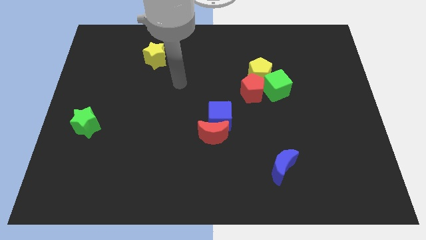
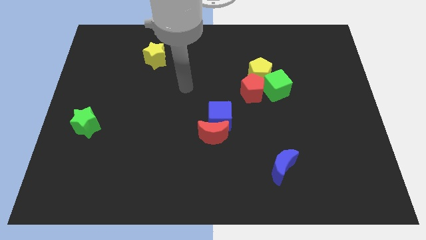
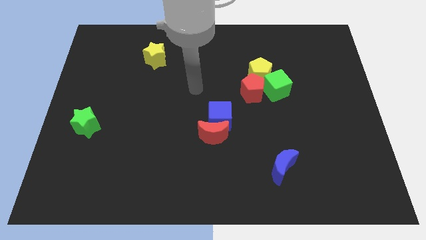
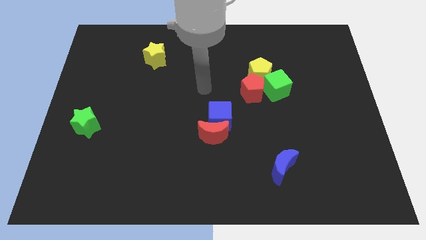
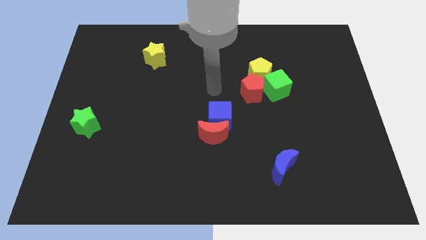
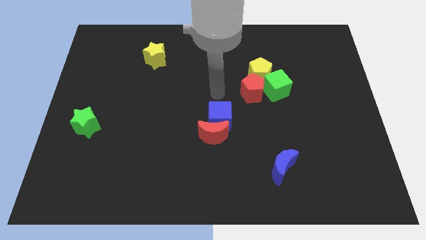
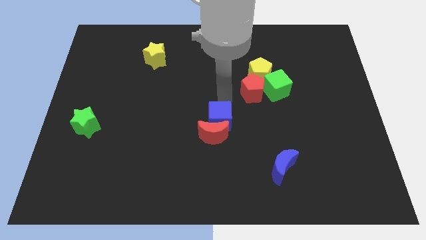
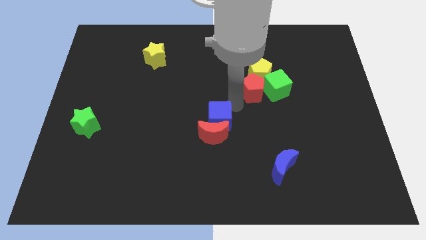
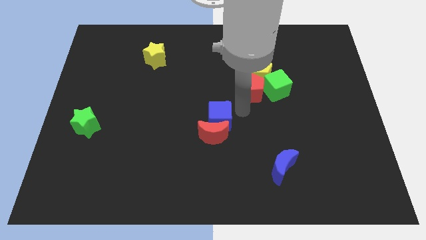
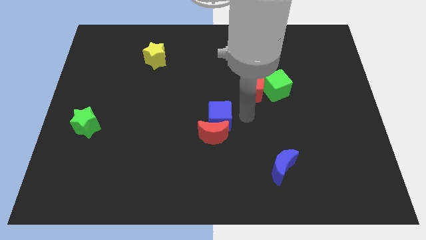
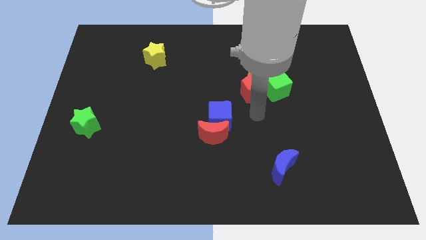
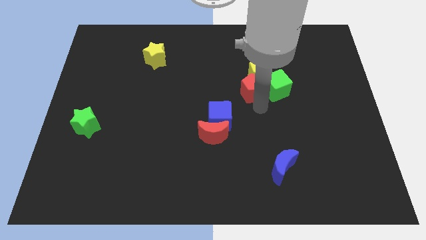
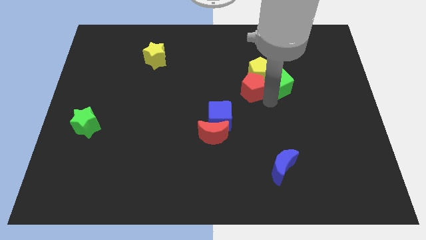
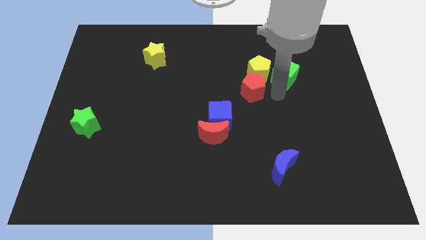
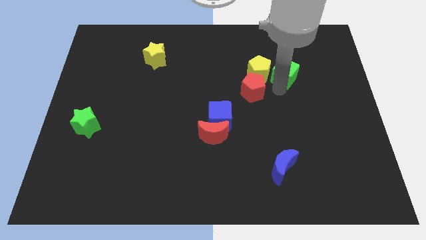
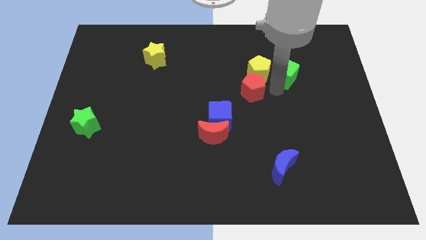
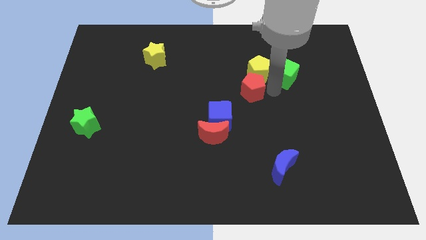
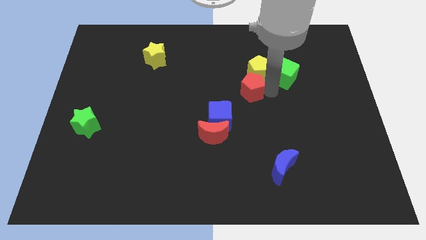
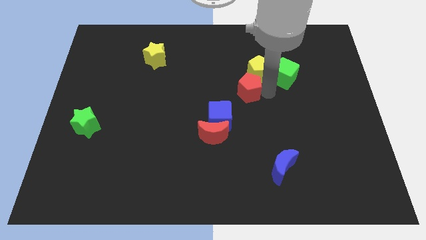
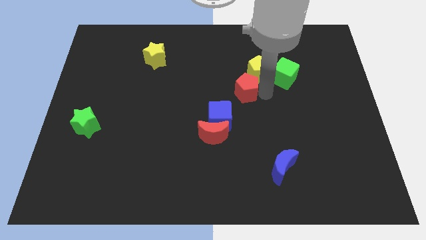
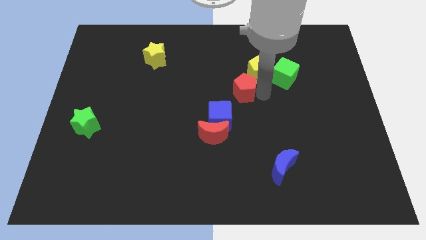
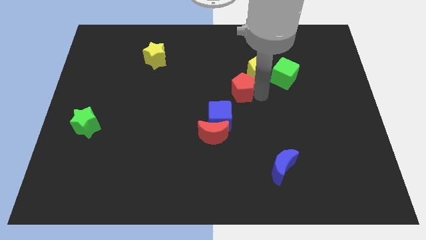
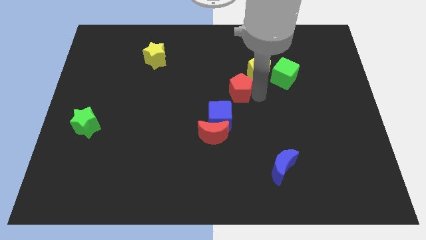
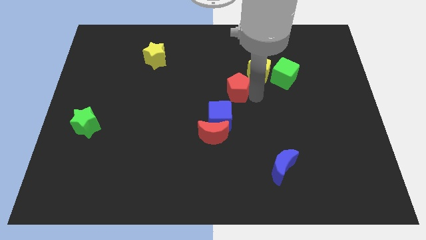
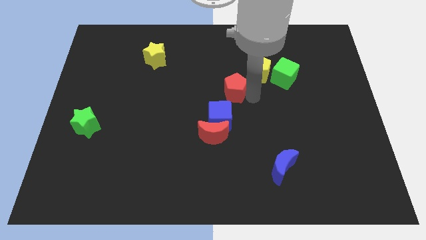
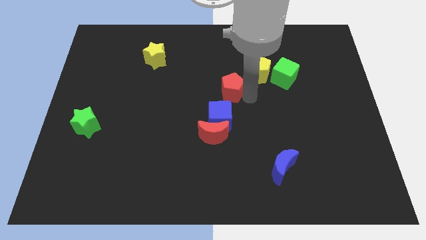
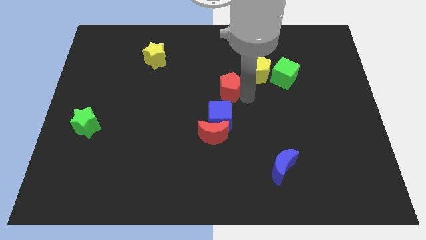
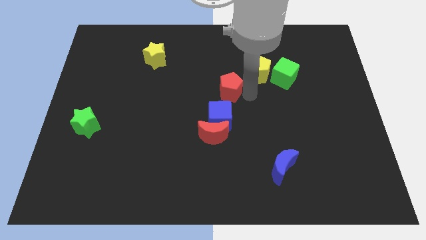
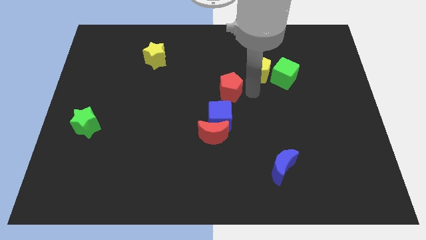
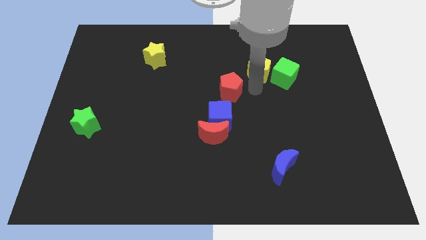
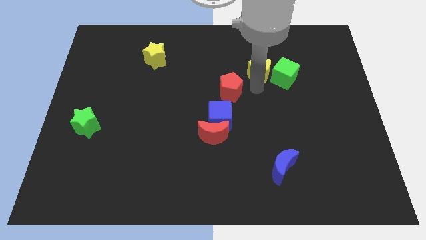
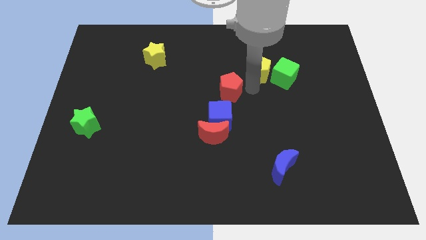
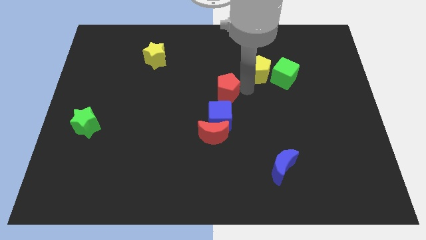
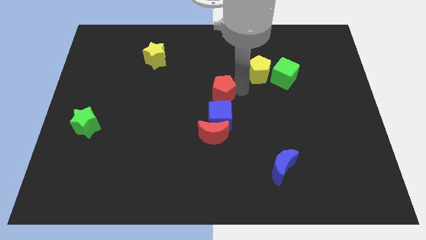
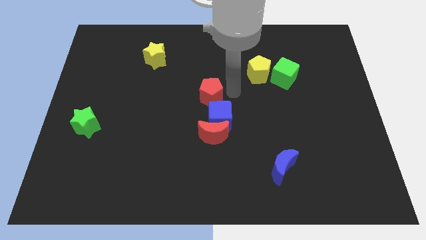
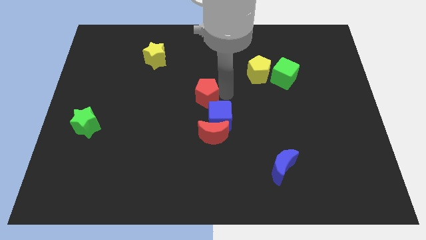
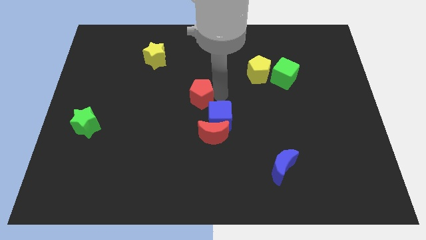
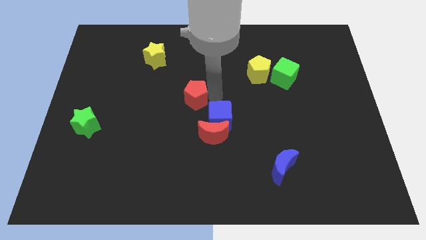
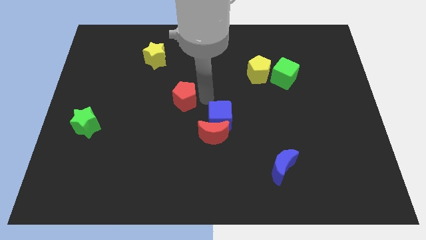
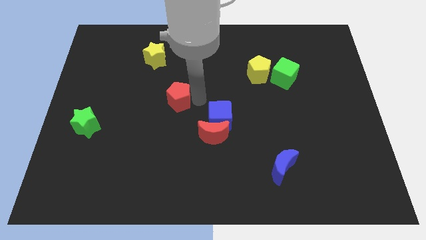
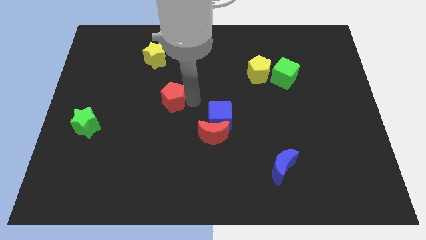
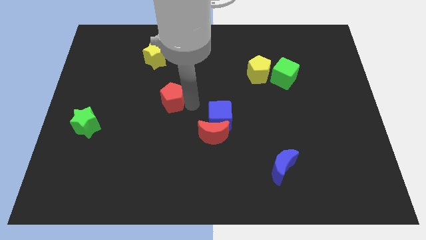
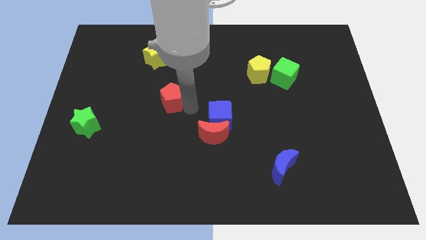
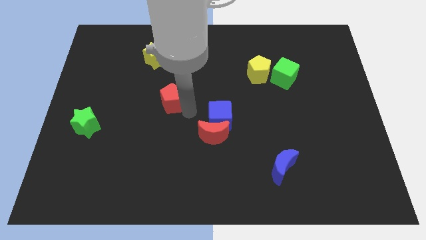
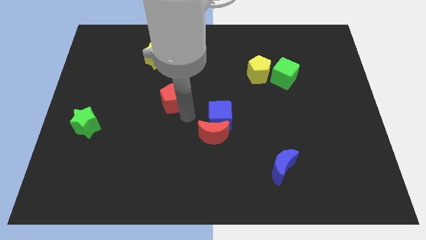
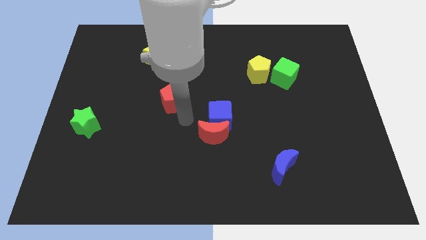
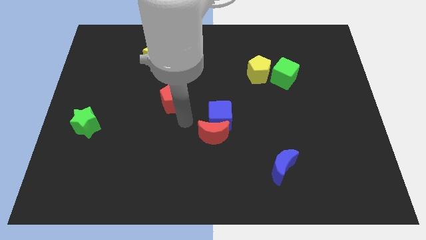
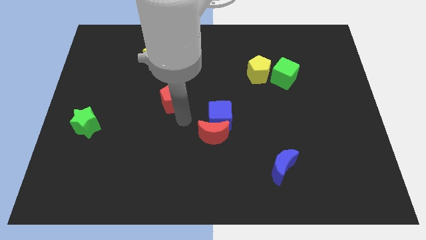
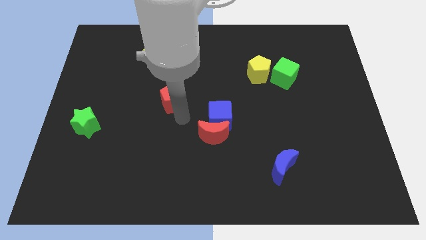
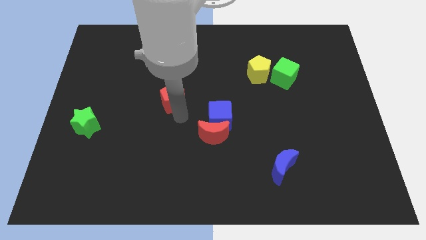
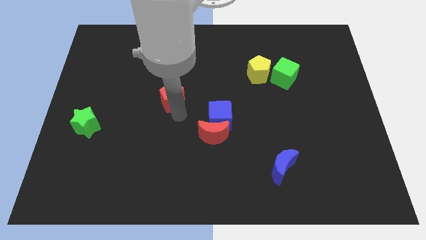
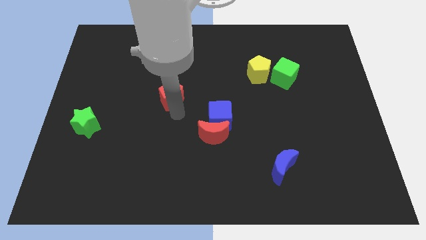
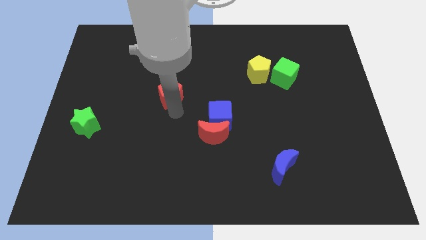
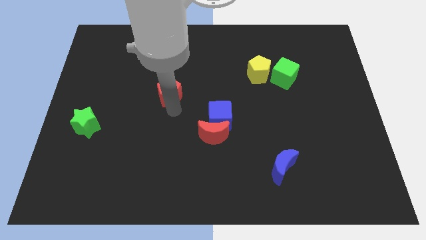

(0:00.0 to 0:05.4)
move the red pentagon to the bottom side of the yellow star

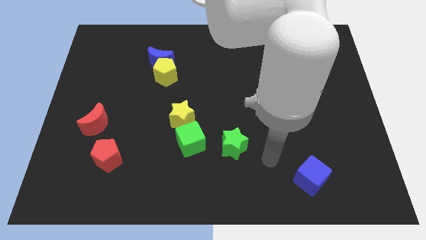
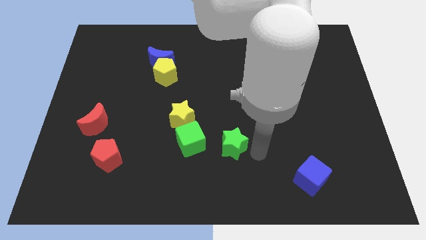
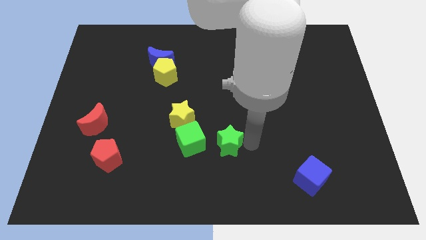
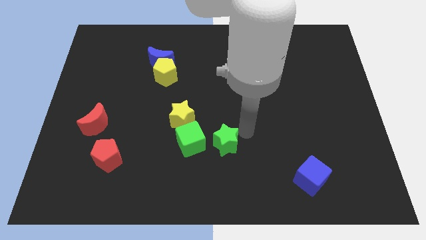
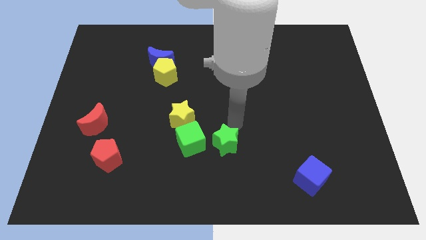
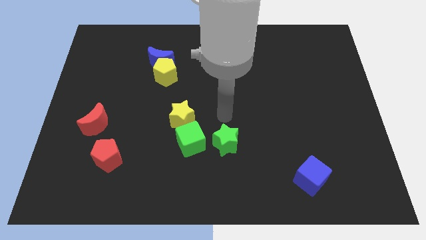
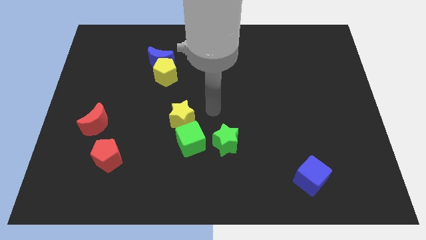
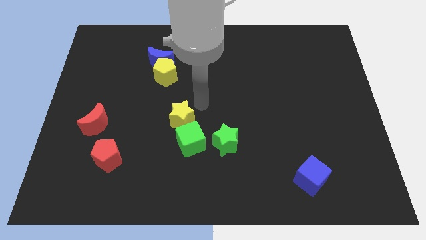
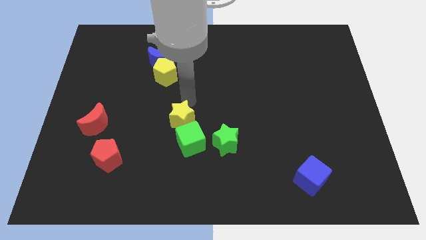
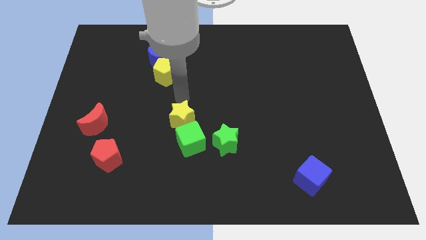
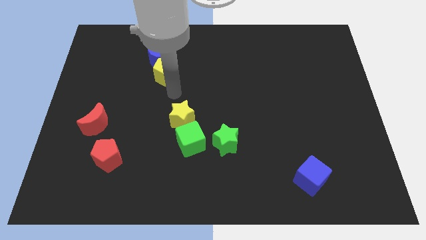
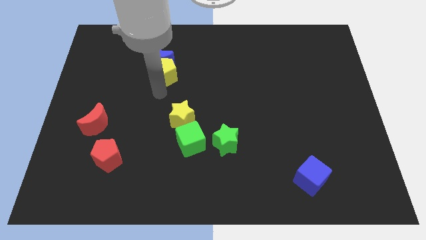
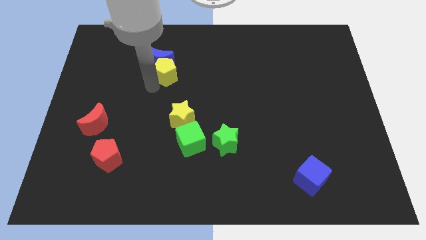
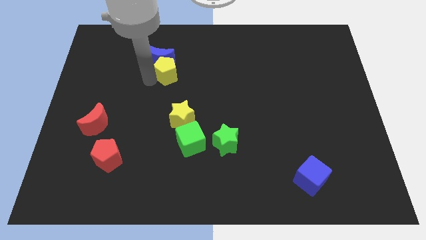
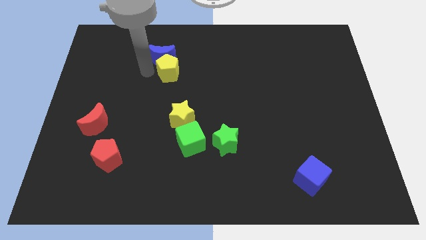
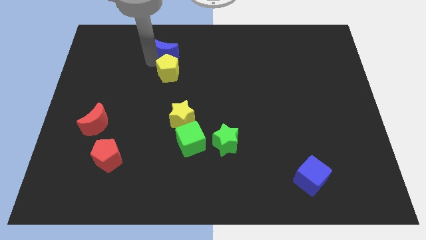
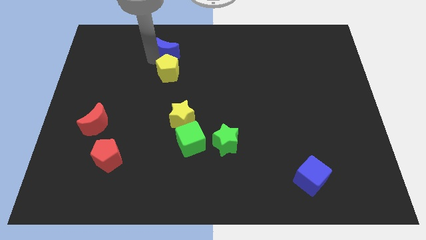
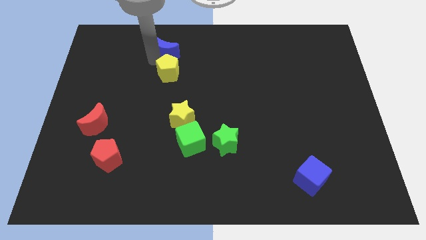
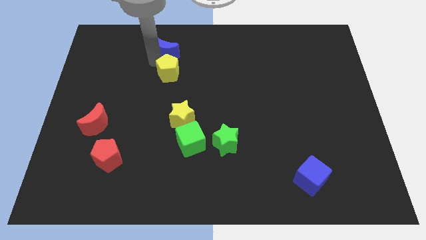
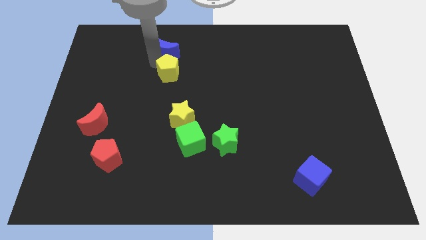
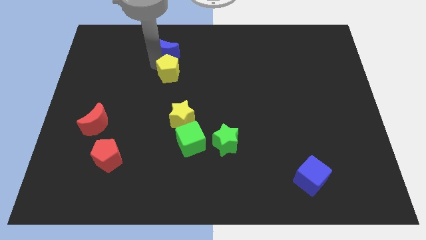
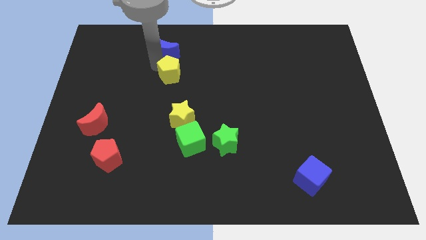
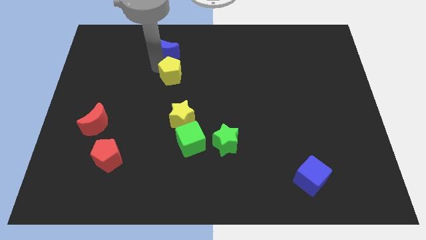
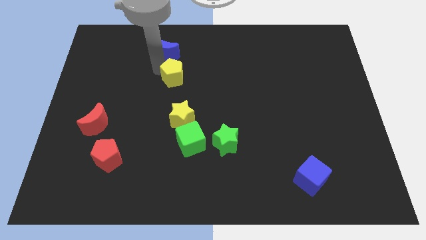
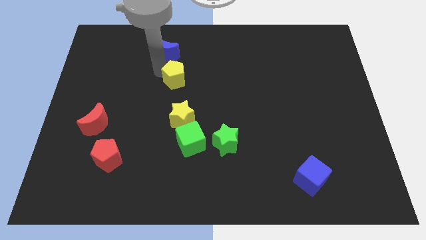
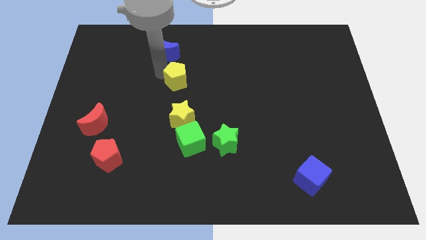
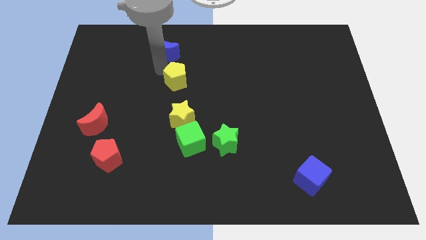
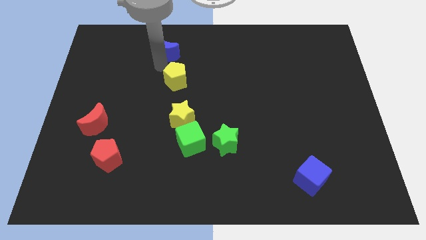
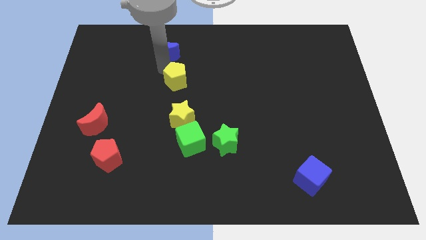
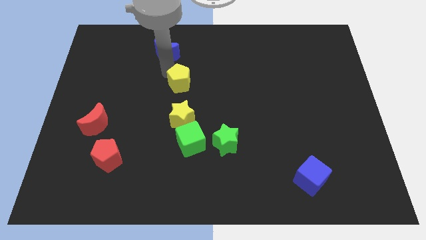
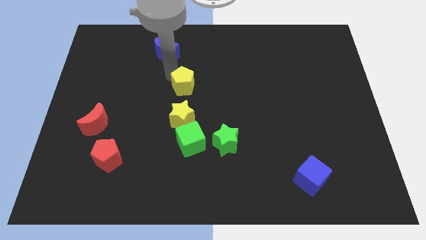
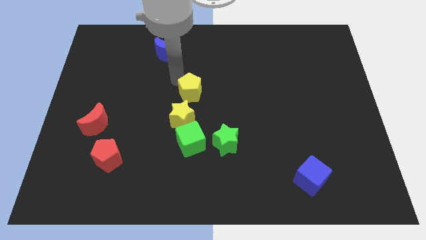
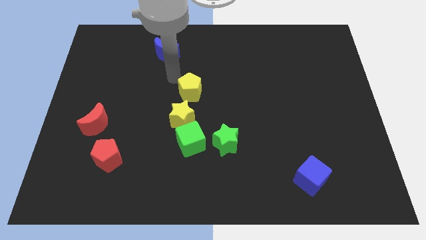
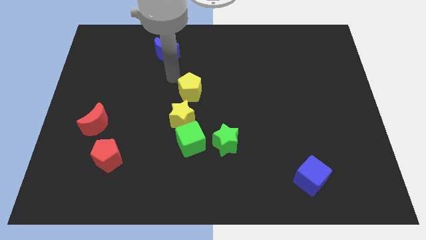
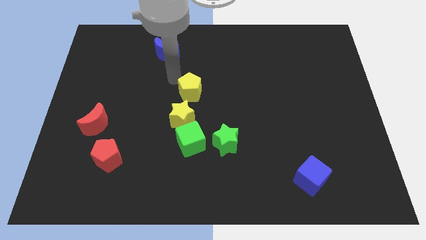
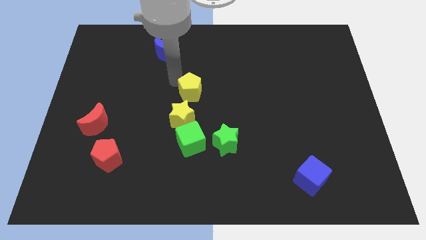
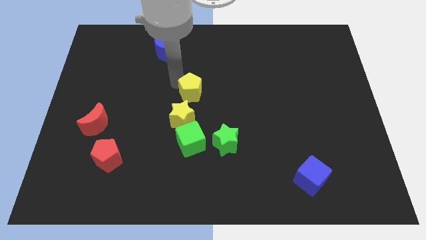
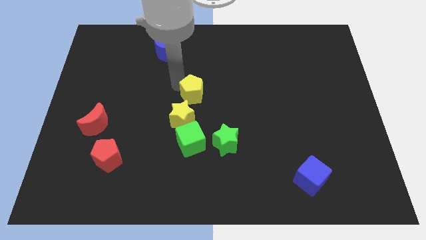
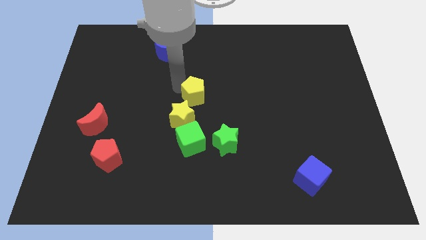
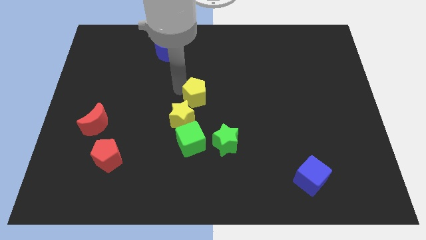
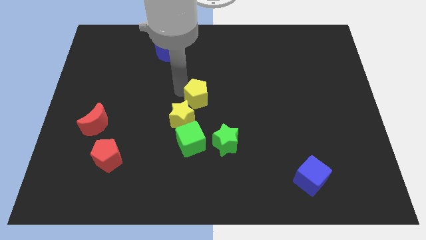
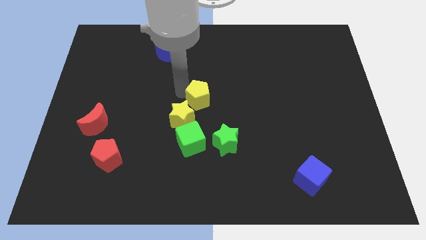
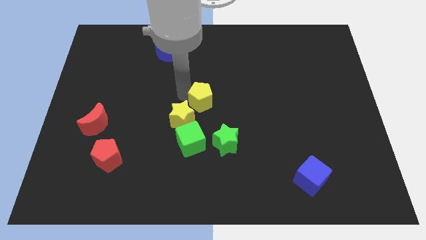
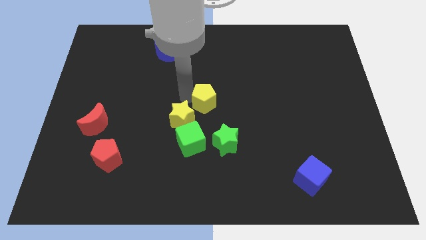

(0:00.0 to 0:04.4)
push the yellow pentagon to the right of the yellow star
